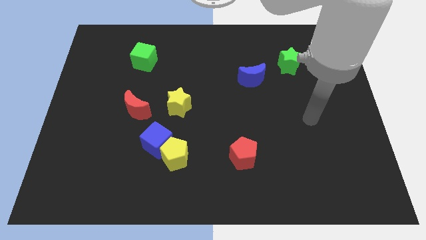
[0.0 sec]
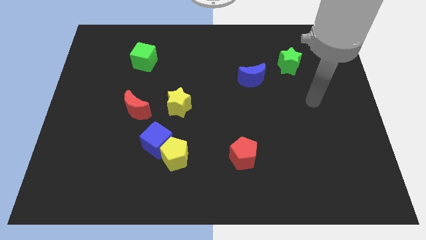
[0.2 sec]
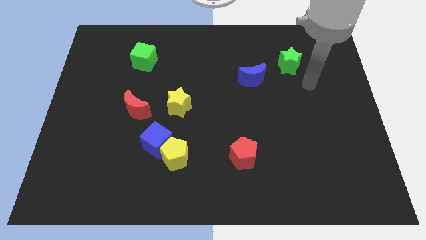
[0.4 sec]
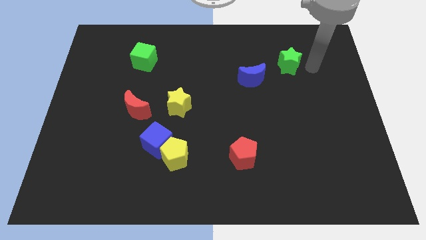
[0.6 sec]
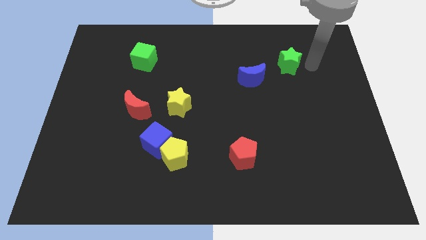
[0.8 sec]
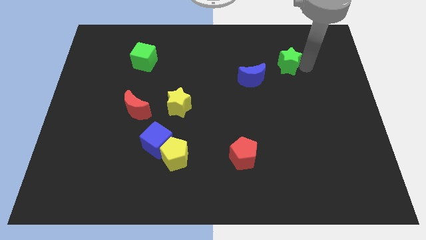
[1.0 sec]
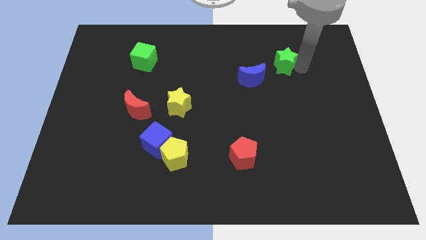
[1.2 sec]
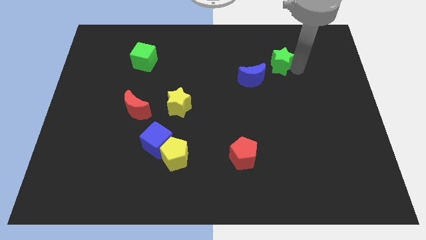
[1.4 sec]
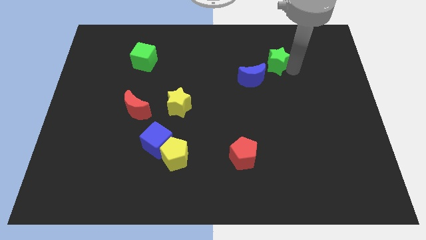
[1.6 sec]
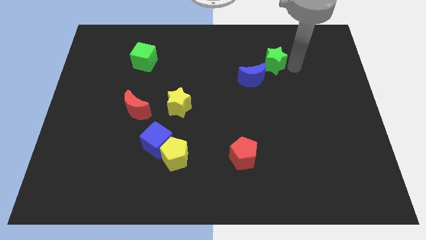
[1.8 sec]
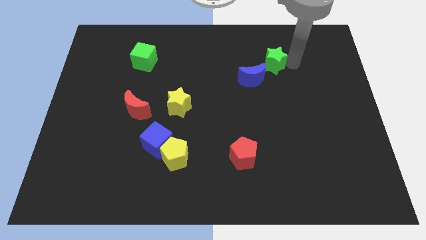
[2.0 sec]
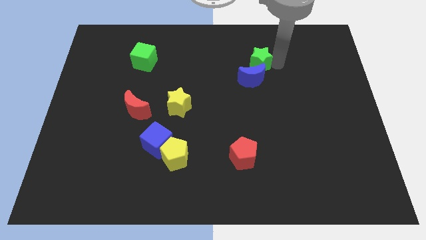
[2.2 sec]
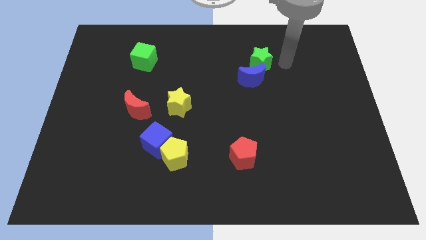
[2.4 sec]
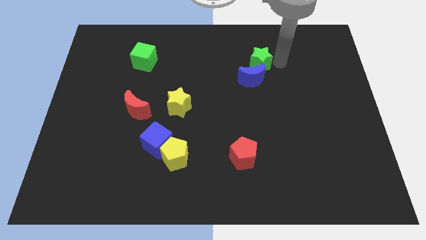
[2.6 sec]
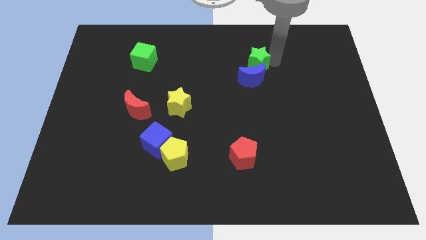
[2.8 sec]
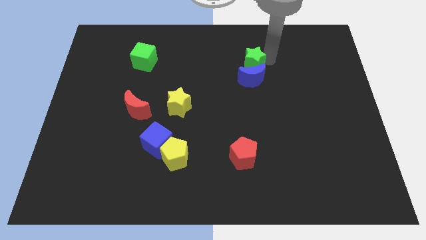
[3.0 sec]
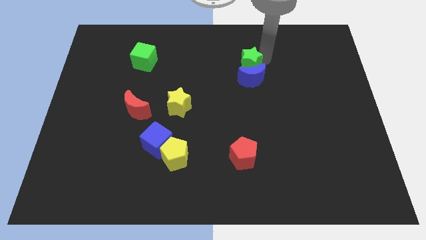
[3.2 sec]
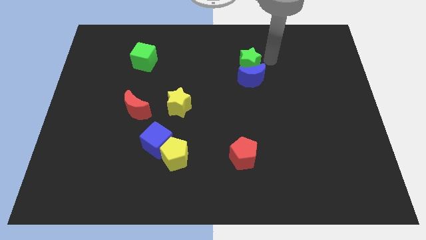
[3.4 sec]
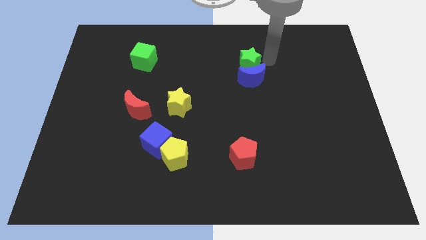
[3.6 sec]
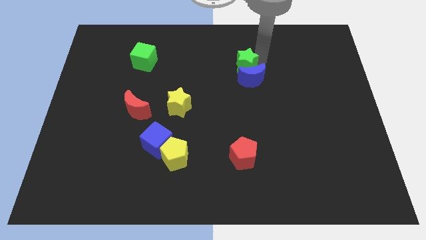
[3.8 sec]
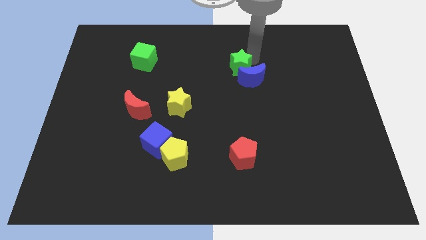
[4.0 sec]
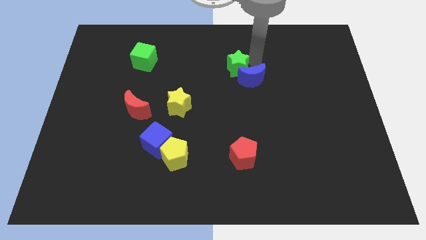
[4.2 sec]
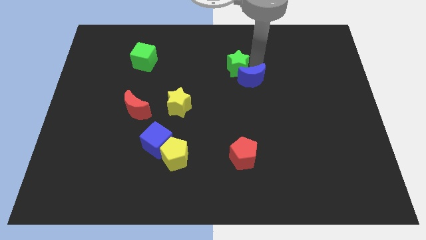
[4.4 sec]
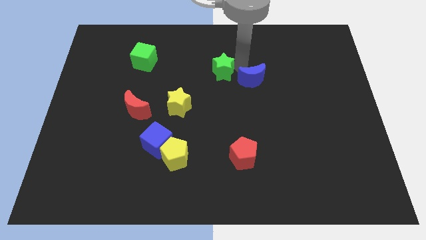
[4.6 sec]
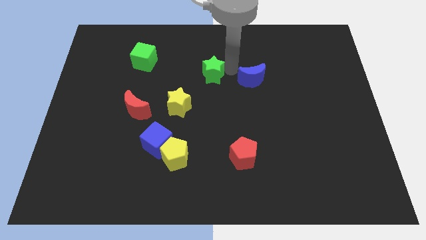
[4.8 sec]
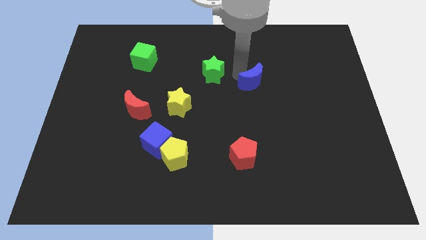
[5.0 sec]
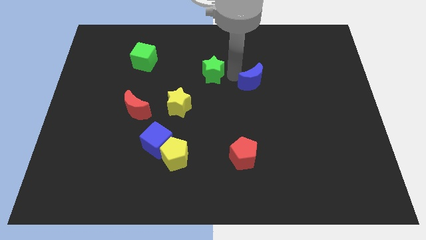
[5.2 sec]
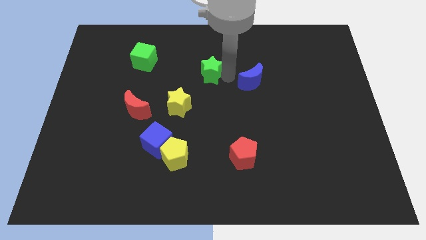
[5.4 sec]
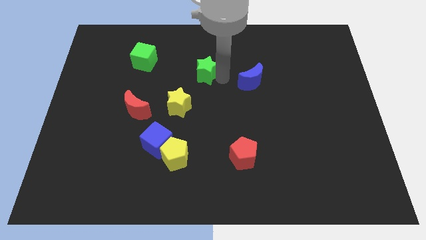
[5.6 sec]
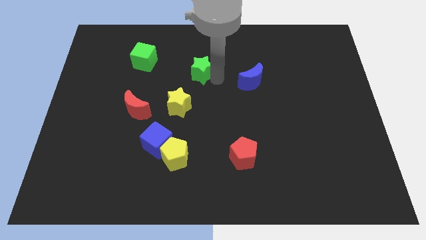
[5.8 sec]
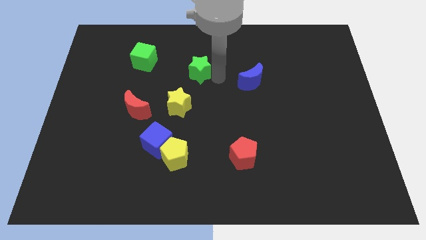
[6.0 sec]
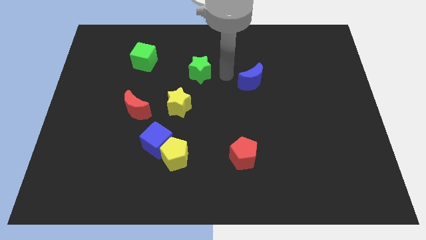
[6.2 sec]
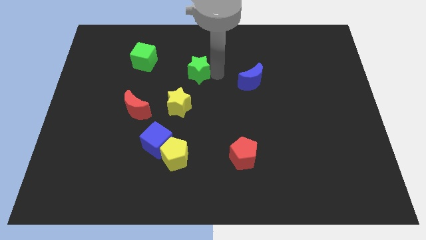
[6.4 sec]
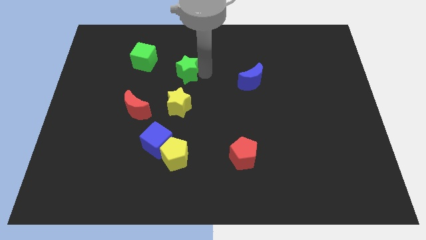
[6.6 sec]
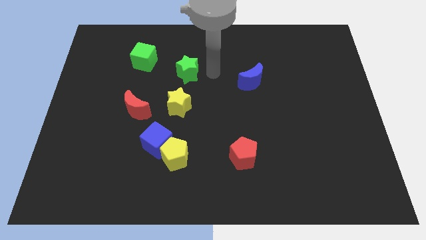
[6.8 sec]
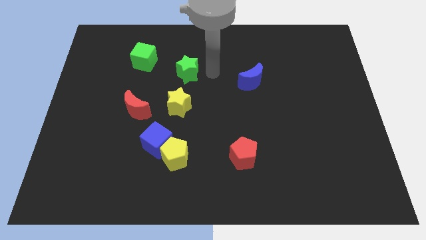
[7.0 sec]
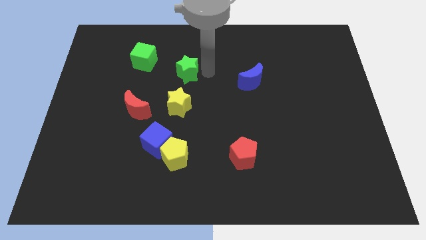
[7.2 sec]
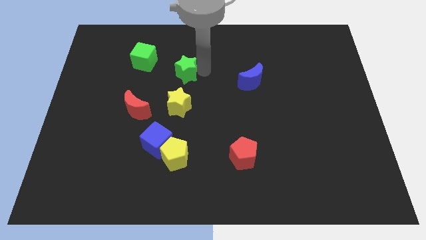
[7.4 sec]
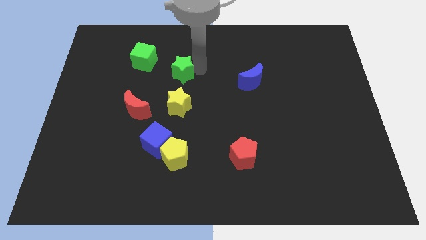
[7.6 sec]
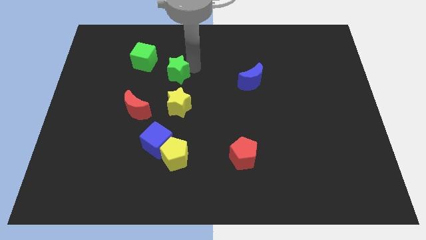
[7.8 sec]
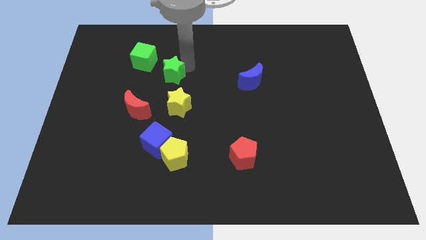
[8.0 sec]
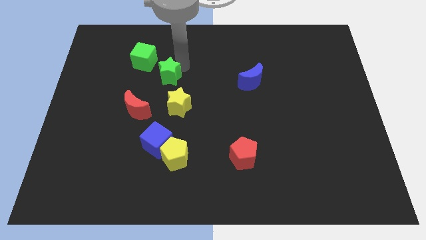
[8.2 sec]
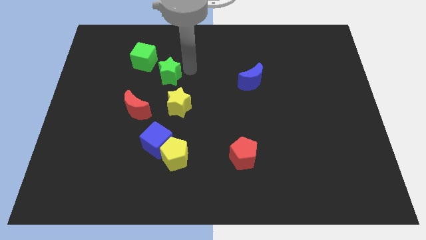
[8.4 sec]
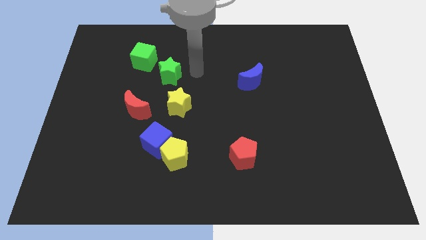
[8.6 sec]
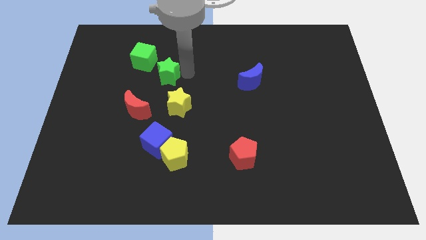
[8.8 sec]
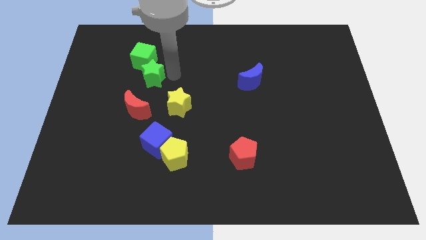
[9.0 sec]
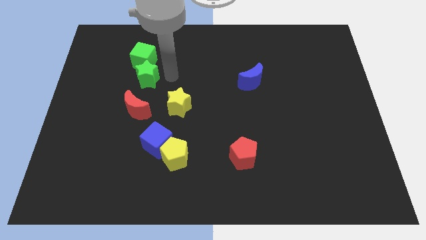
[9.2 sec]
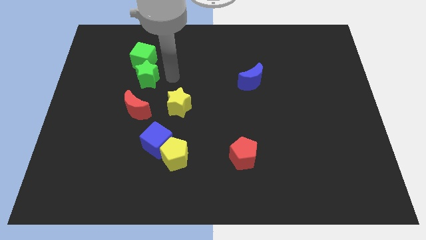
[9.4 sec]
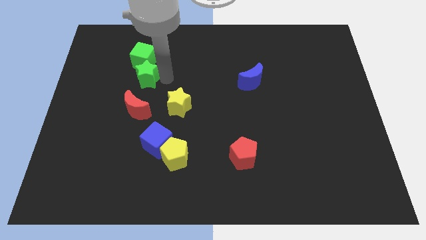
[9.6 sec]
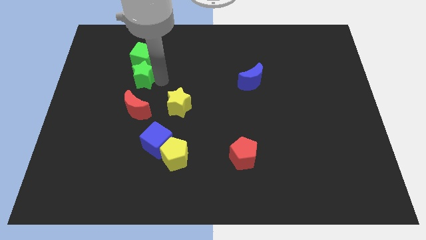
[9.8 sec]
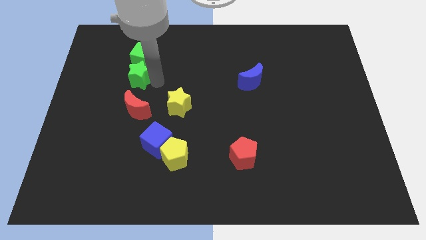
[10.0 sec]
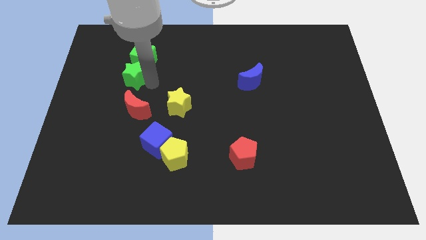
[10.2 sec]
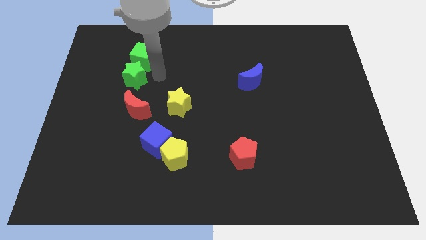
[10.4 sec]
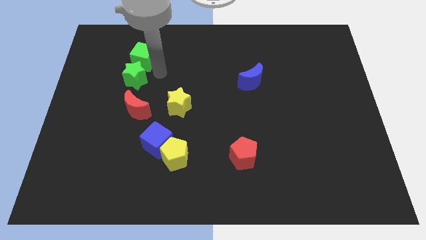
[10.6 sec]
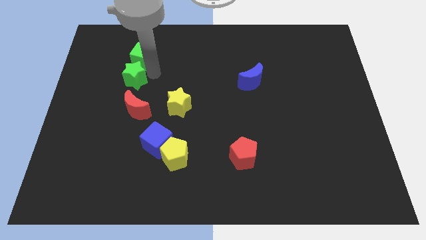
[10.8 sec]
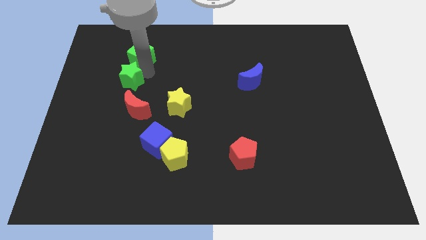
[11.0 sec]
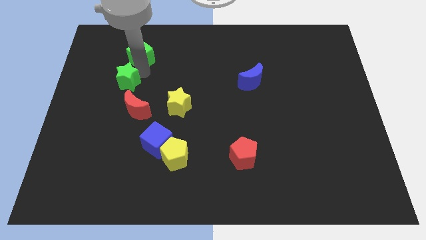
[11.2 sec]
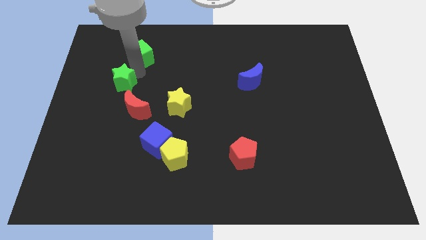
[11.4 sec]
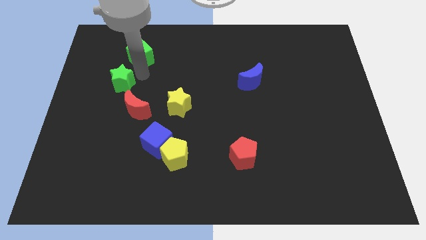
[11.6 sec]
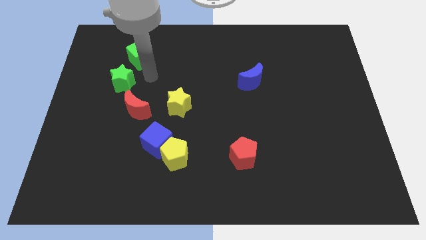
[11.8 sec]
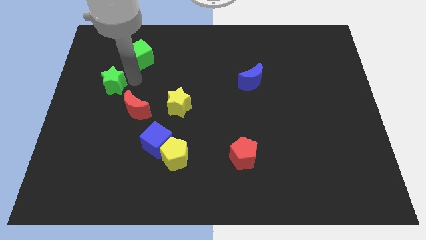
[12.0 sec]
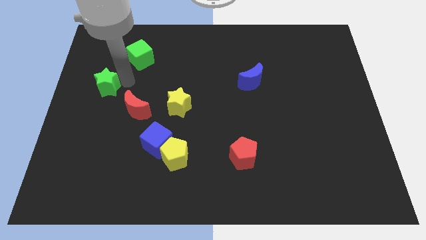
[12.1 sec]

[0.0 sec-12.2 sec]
put the green star to the left side

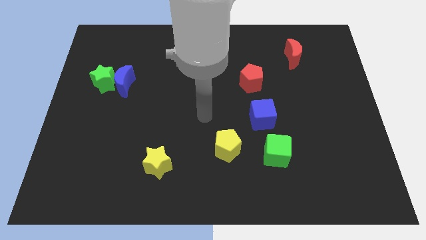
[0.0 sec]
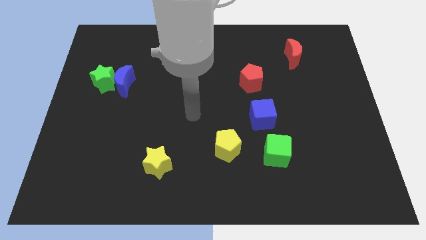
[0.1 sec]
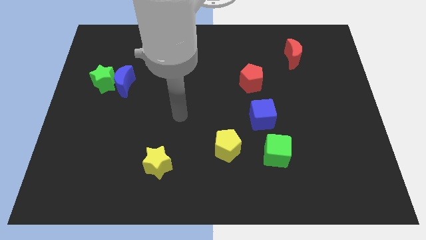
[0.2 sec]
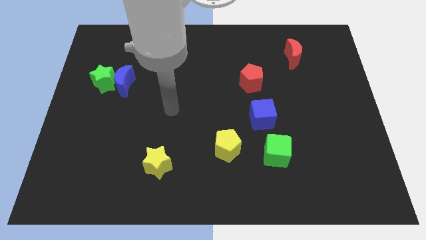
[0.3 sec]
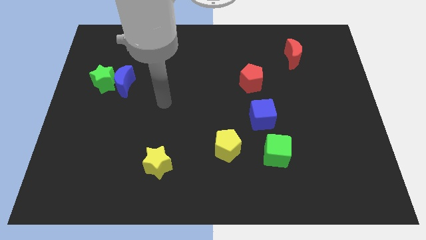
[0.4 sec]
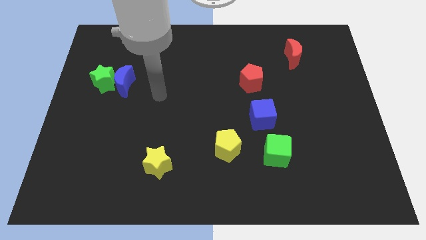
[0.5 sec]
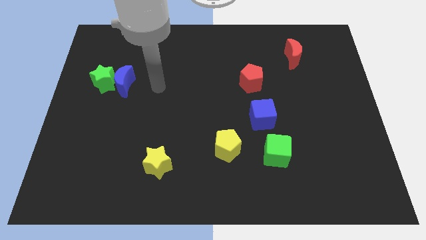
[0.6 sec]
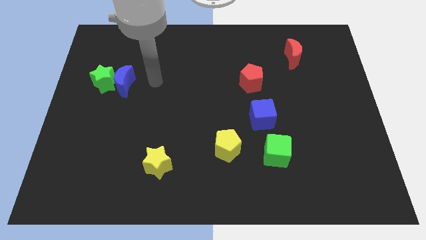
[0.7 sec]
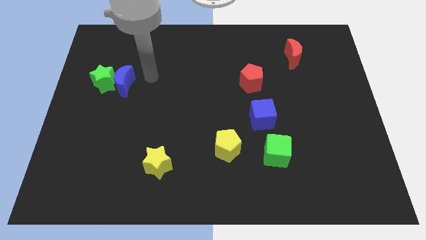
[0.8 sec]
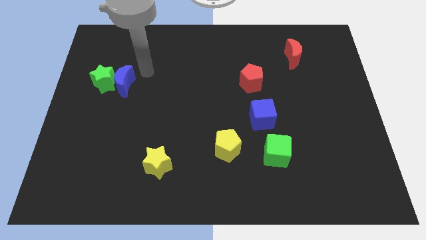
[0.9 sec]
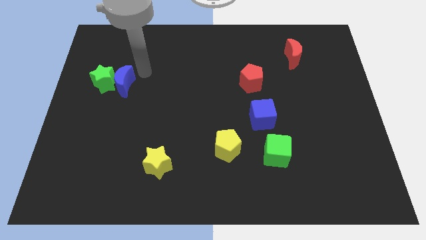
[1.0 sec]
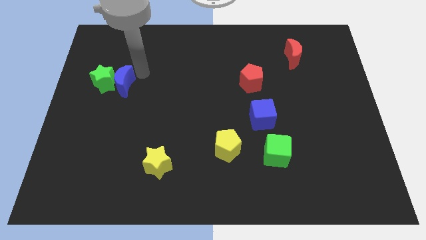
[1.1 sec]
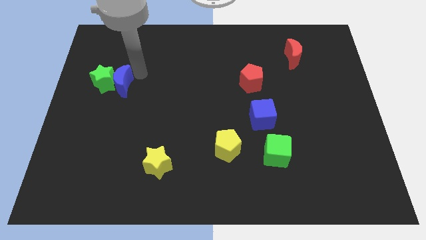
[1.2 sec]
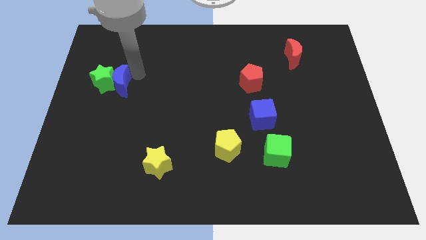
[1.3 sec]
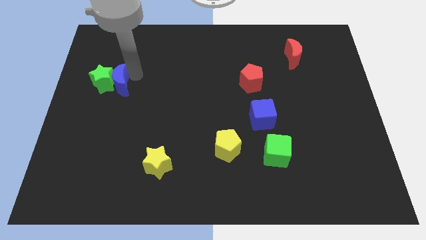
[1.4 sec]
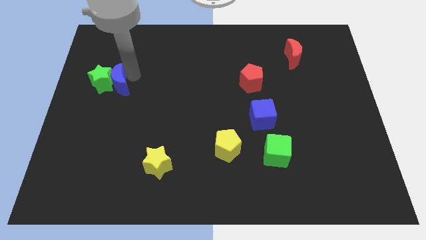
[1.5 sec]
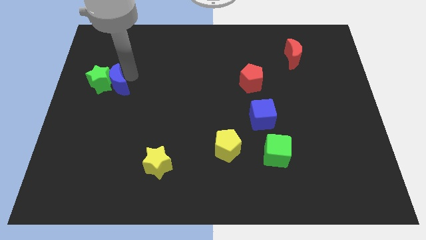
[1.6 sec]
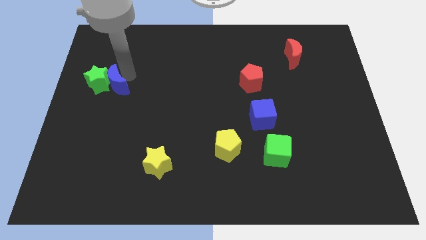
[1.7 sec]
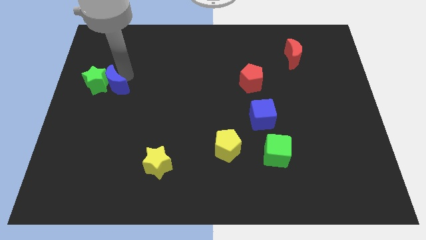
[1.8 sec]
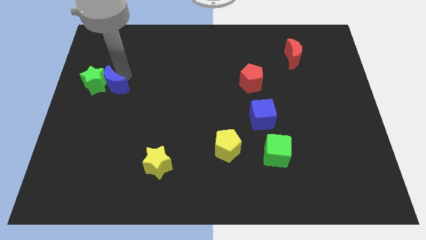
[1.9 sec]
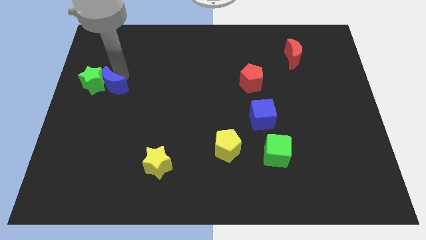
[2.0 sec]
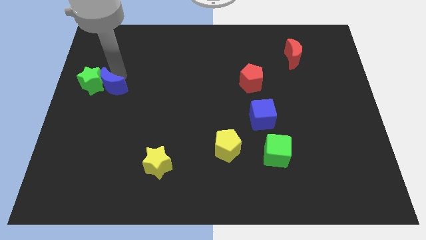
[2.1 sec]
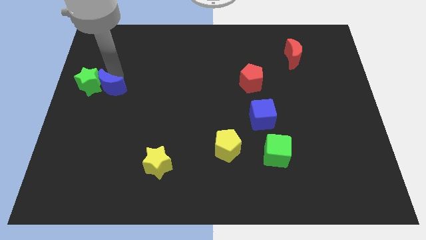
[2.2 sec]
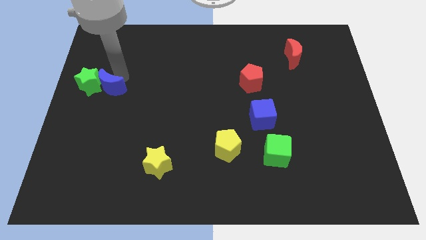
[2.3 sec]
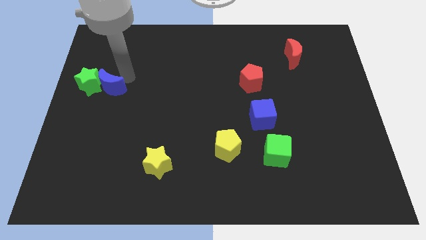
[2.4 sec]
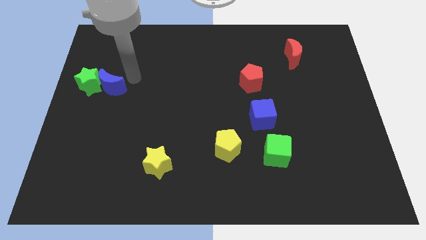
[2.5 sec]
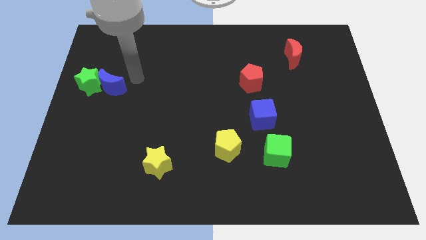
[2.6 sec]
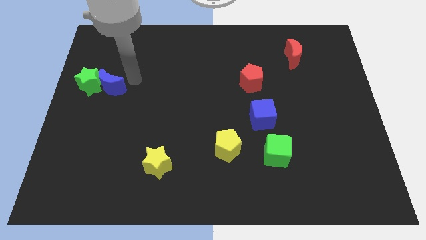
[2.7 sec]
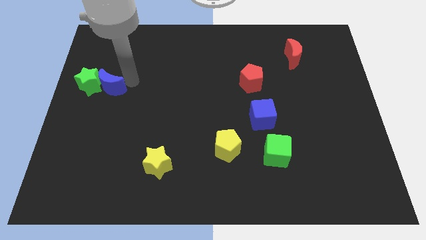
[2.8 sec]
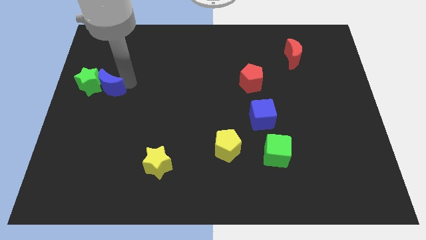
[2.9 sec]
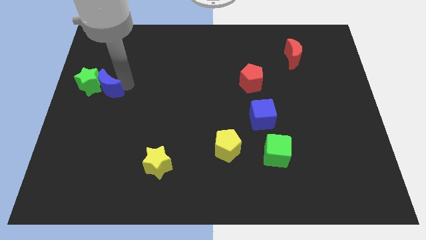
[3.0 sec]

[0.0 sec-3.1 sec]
slide the blue moon to the left side
